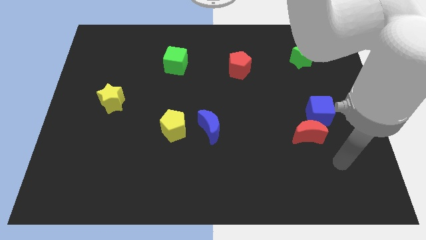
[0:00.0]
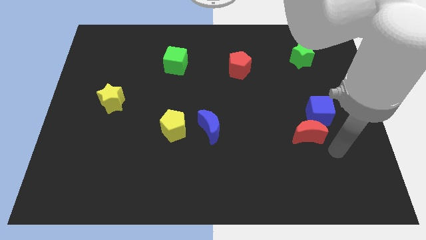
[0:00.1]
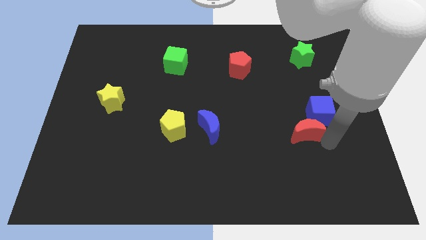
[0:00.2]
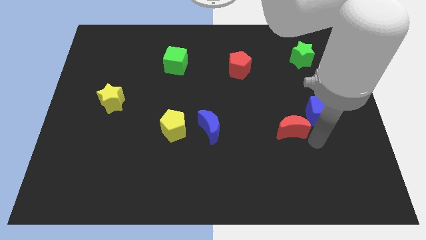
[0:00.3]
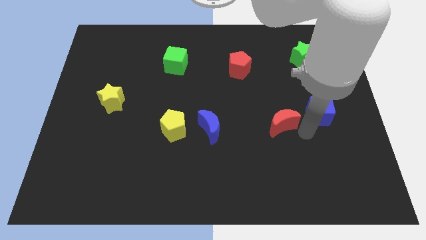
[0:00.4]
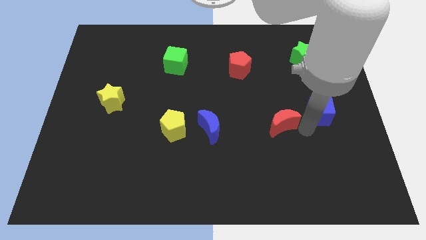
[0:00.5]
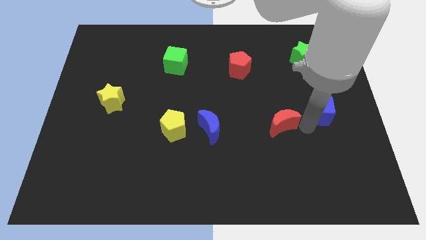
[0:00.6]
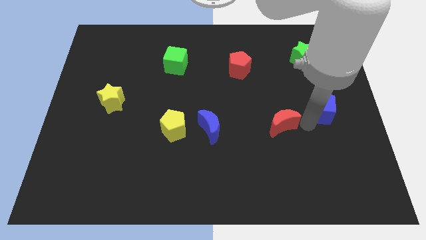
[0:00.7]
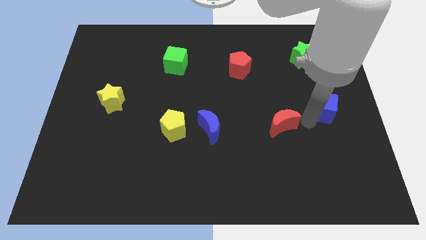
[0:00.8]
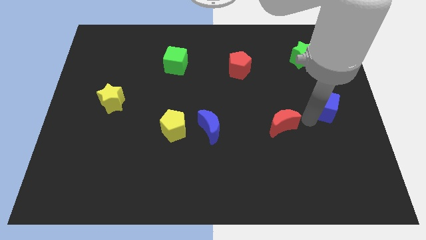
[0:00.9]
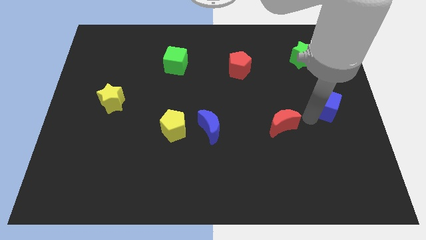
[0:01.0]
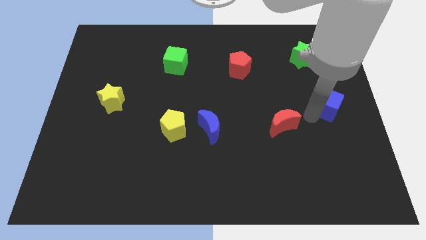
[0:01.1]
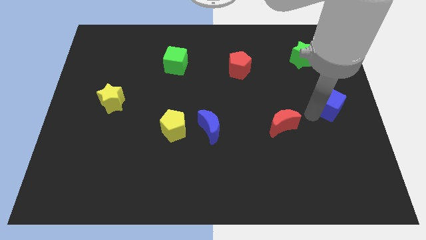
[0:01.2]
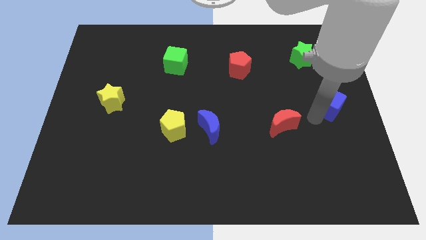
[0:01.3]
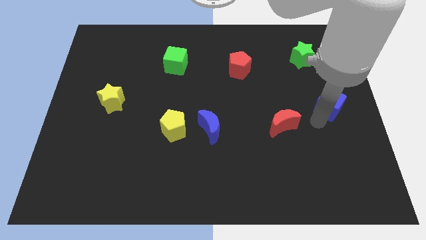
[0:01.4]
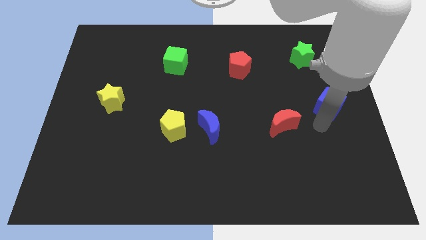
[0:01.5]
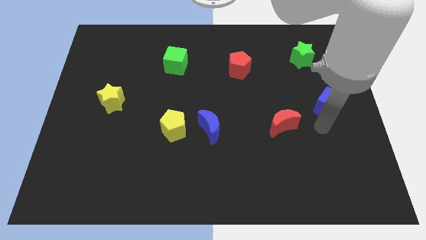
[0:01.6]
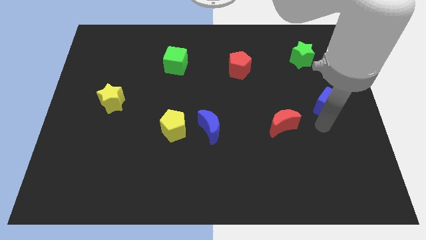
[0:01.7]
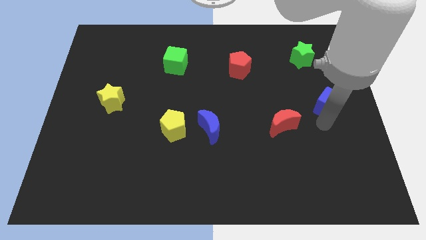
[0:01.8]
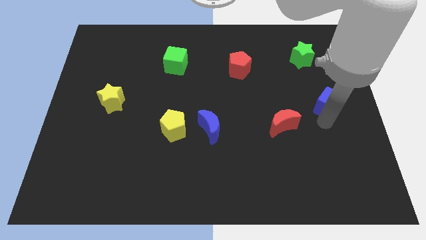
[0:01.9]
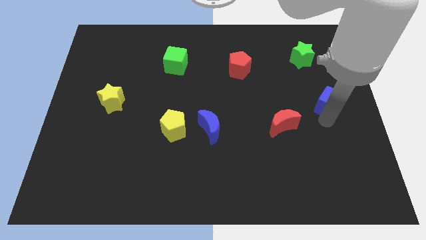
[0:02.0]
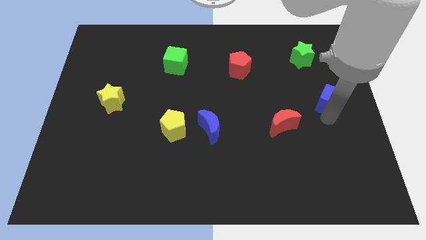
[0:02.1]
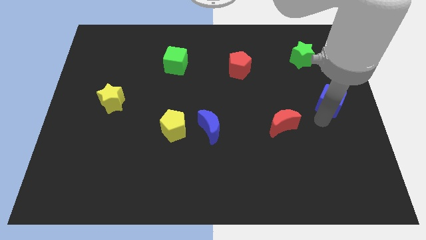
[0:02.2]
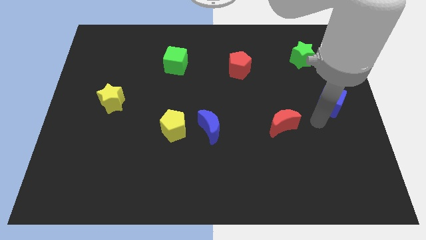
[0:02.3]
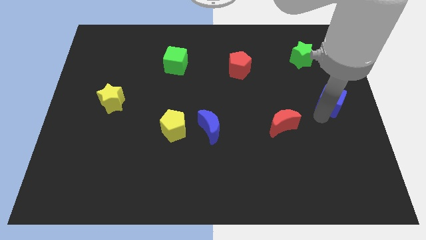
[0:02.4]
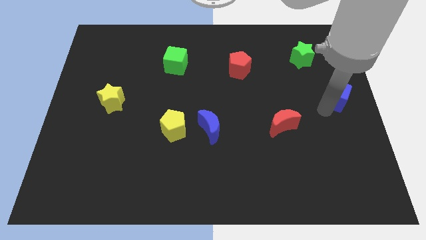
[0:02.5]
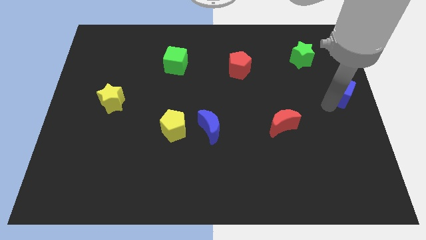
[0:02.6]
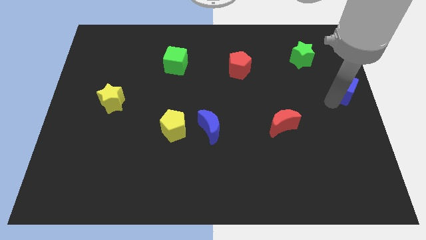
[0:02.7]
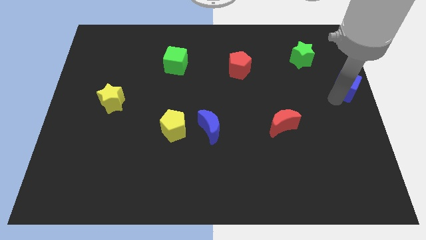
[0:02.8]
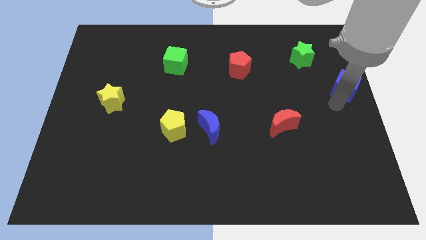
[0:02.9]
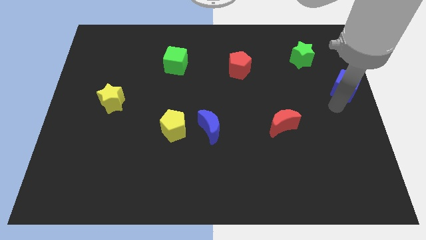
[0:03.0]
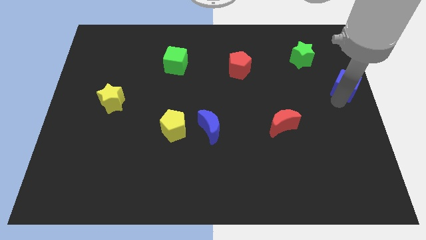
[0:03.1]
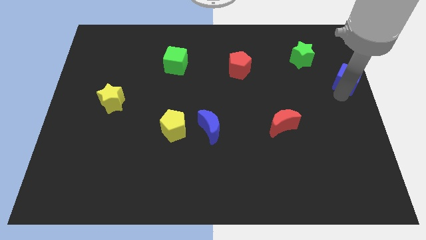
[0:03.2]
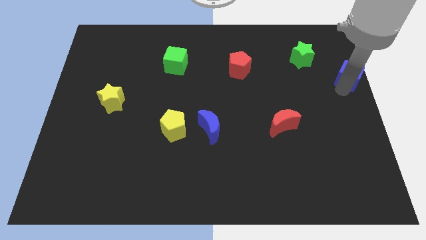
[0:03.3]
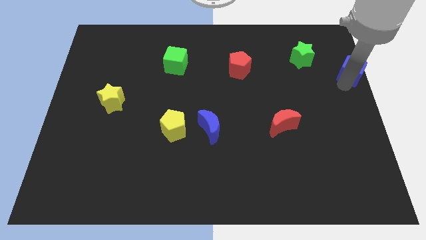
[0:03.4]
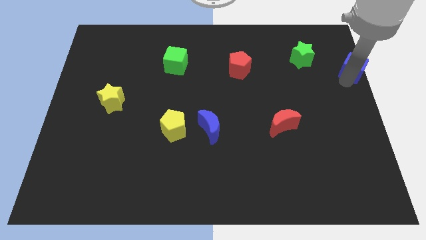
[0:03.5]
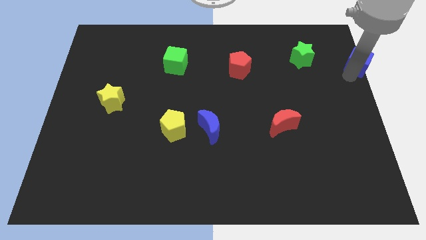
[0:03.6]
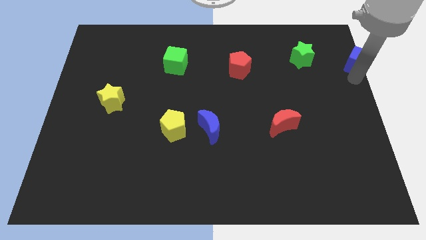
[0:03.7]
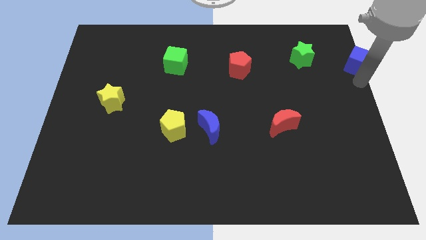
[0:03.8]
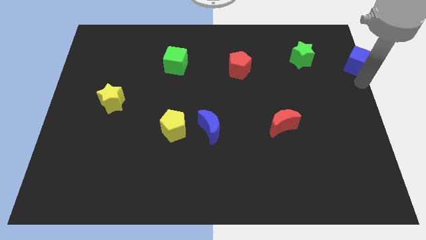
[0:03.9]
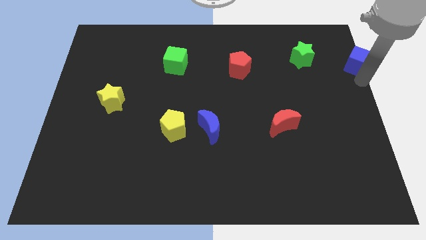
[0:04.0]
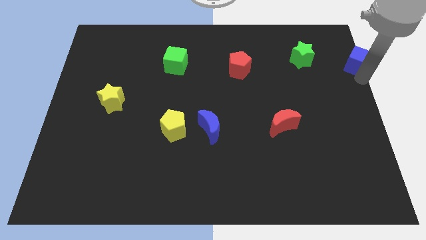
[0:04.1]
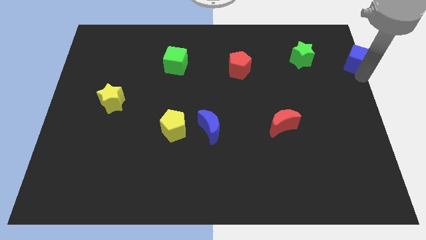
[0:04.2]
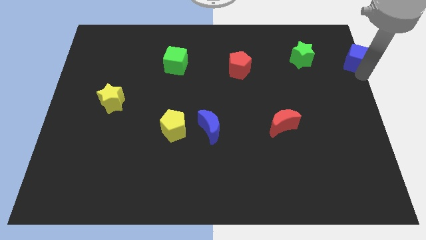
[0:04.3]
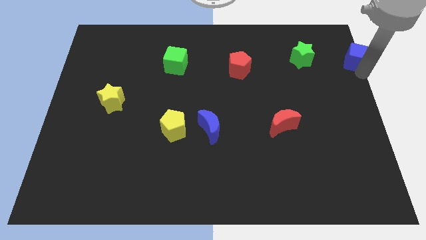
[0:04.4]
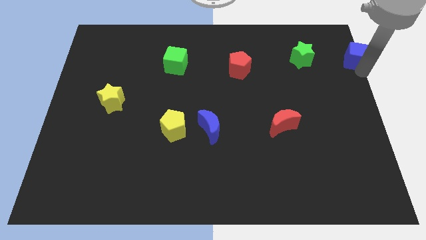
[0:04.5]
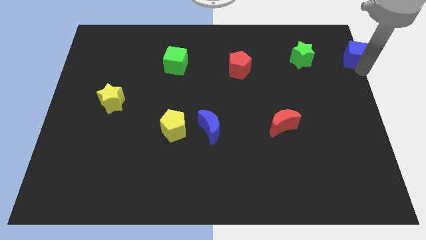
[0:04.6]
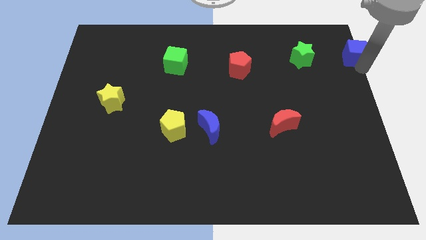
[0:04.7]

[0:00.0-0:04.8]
move the blue cube to the top right corner

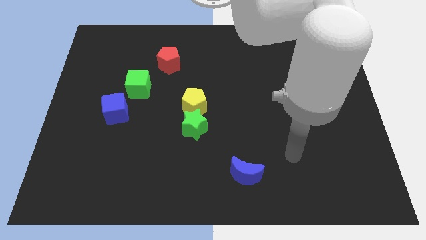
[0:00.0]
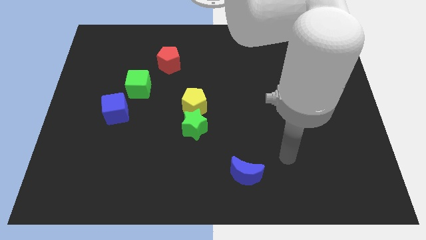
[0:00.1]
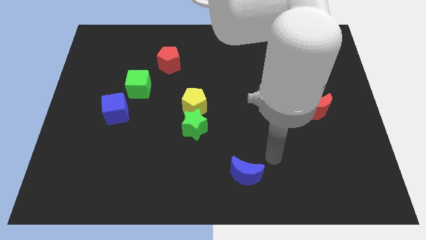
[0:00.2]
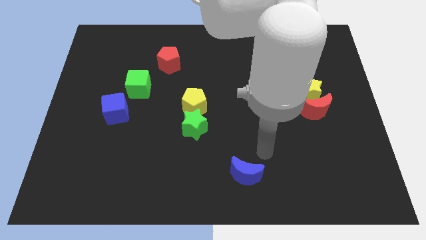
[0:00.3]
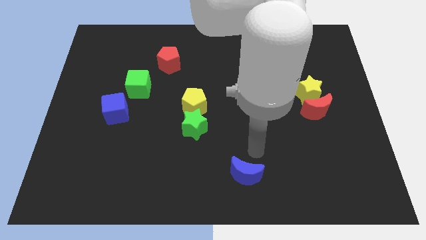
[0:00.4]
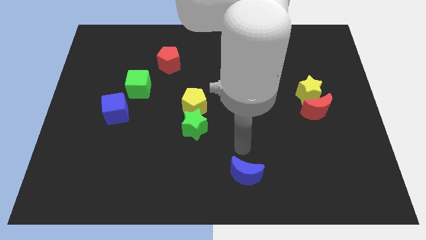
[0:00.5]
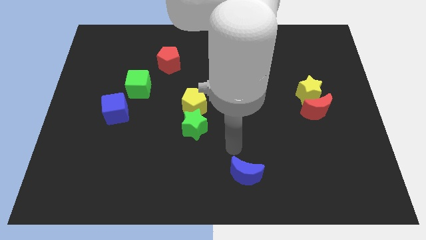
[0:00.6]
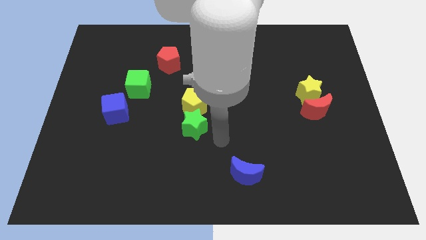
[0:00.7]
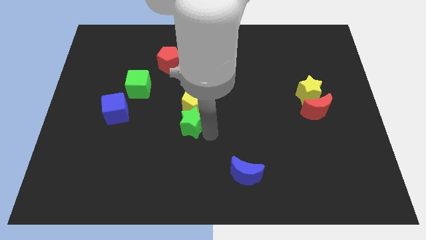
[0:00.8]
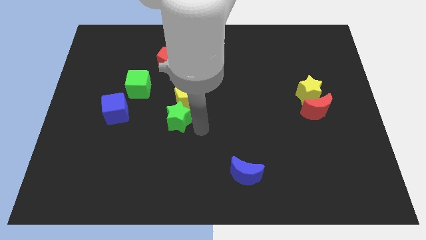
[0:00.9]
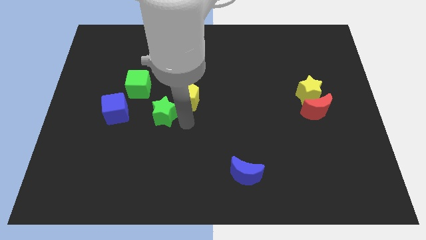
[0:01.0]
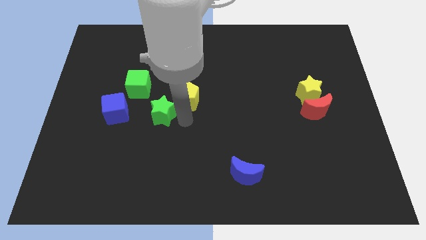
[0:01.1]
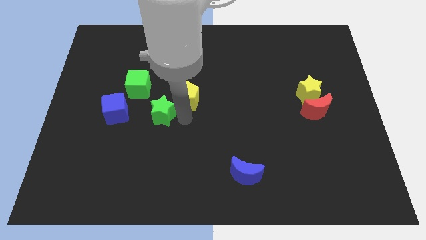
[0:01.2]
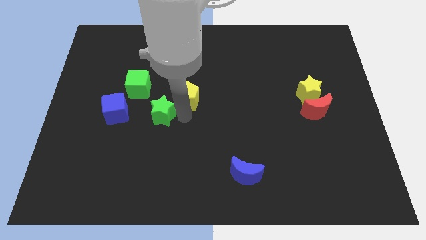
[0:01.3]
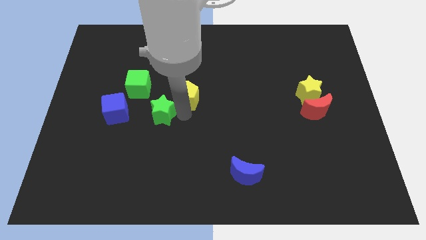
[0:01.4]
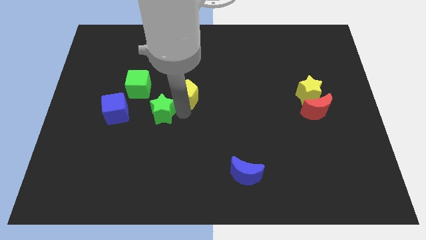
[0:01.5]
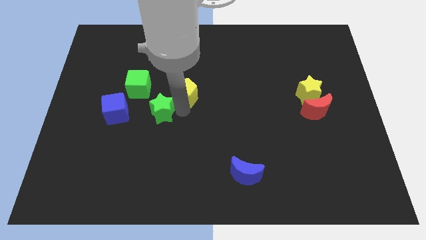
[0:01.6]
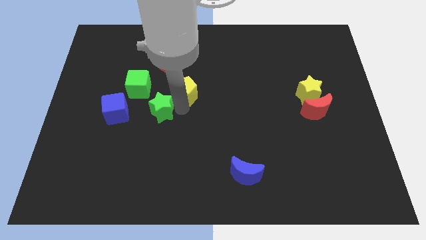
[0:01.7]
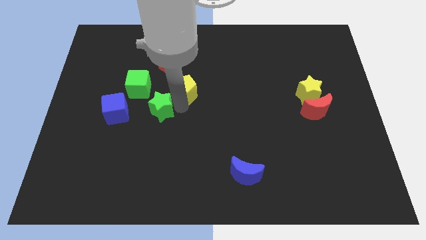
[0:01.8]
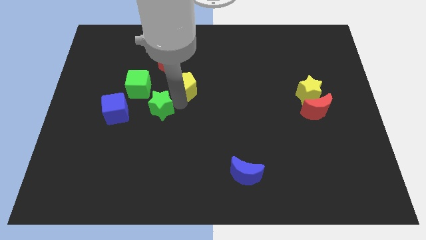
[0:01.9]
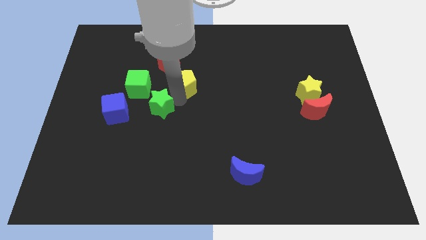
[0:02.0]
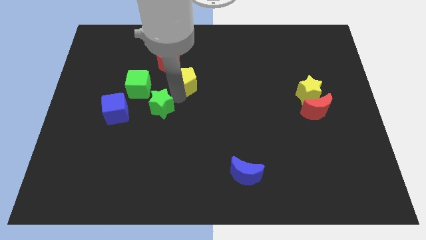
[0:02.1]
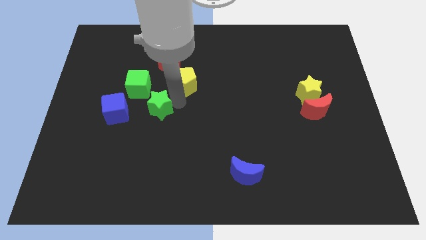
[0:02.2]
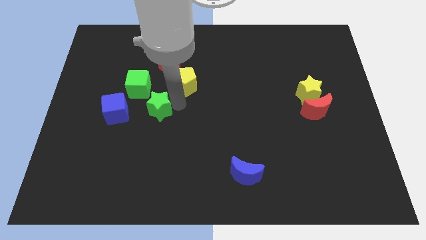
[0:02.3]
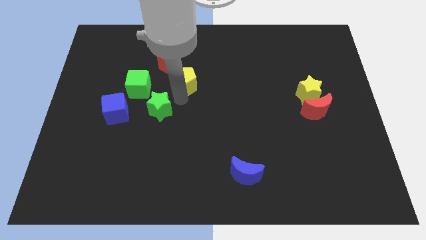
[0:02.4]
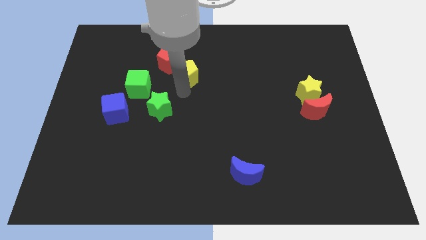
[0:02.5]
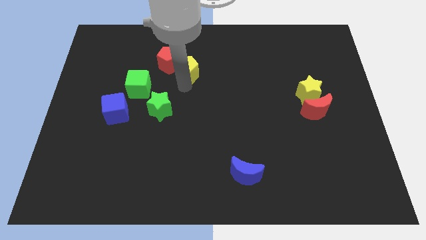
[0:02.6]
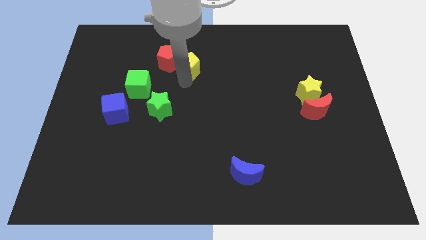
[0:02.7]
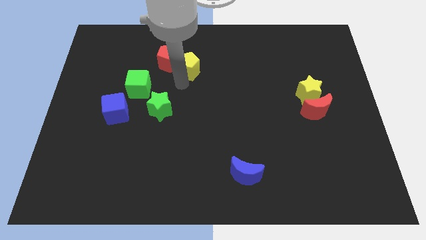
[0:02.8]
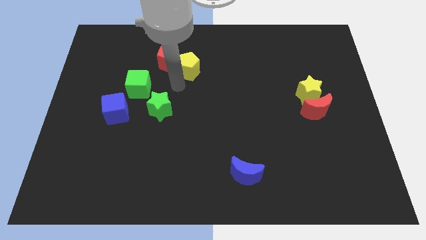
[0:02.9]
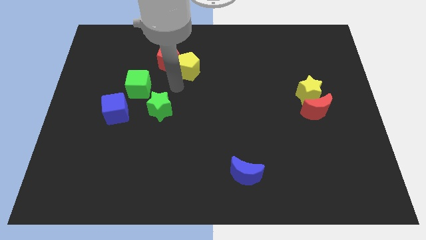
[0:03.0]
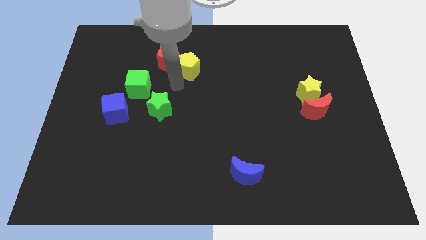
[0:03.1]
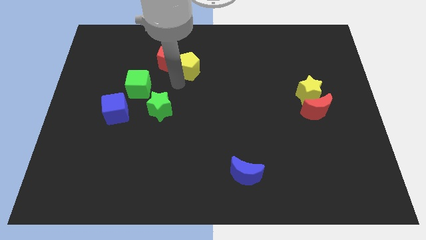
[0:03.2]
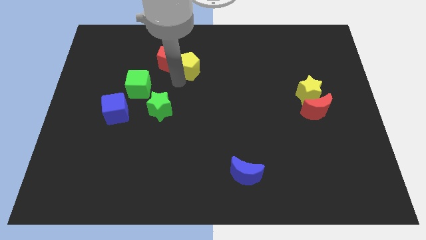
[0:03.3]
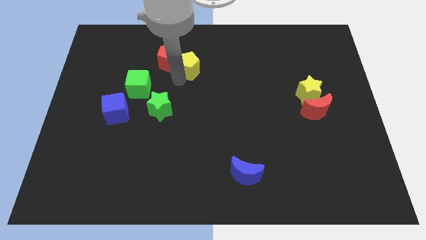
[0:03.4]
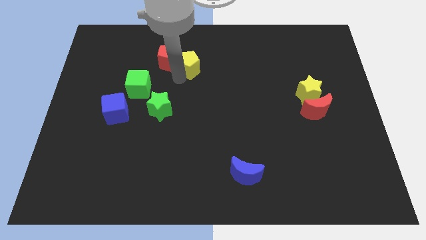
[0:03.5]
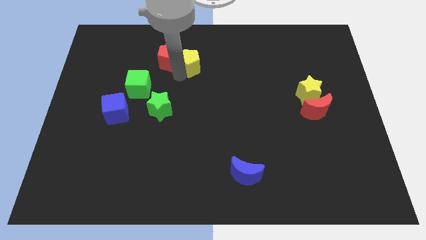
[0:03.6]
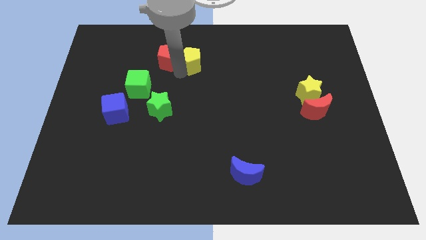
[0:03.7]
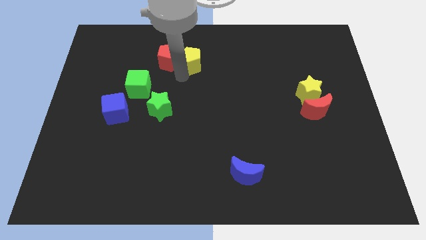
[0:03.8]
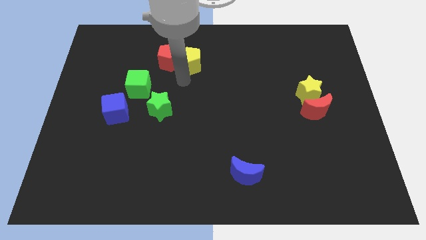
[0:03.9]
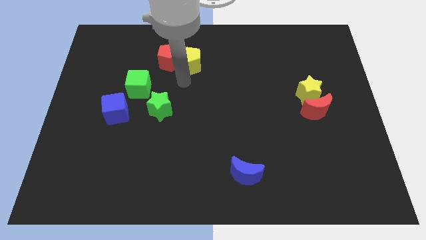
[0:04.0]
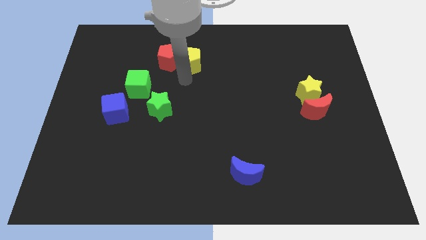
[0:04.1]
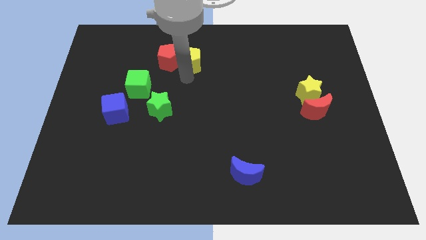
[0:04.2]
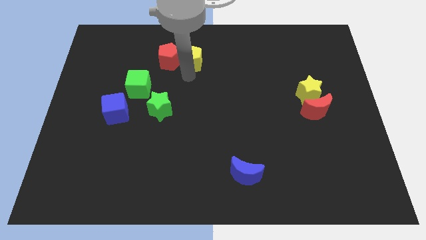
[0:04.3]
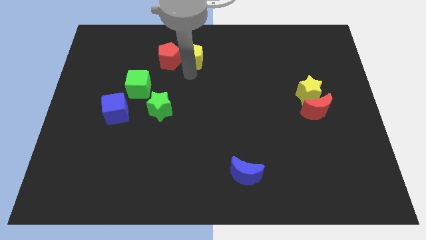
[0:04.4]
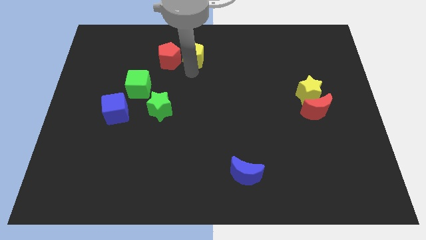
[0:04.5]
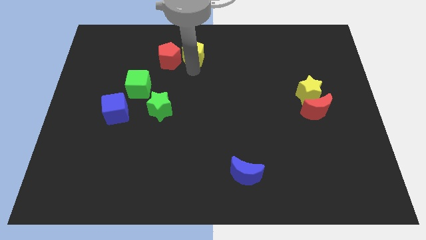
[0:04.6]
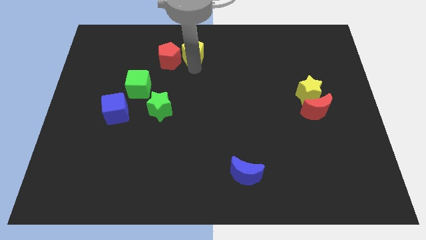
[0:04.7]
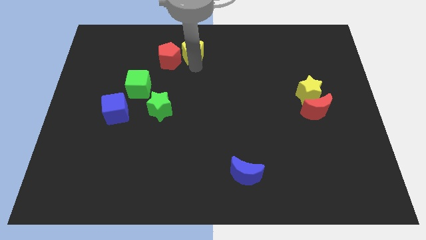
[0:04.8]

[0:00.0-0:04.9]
push the yellow pentagon to the top side
